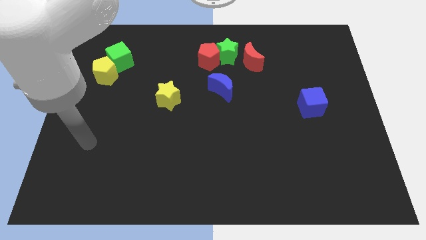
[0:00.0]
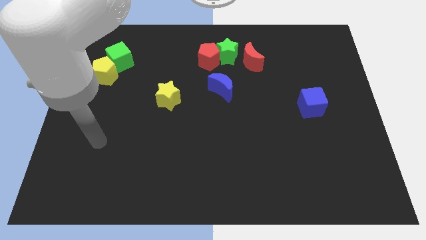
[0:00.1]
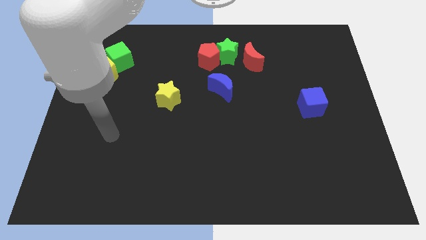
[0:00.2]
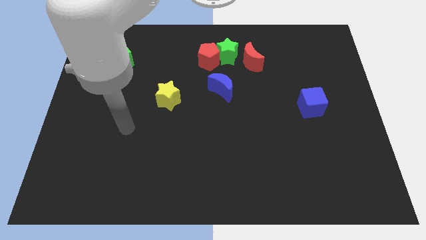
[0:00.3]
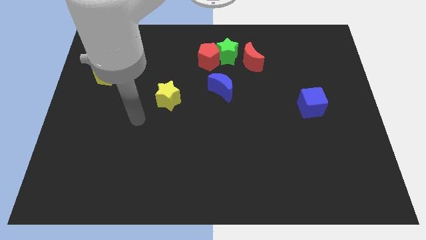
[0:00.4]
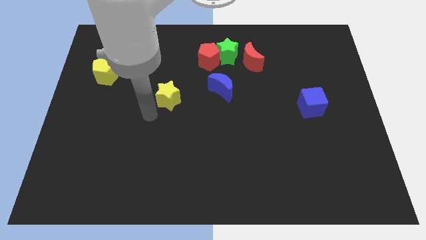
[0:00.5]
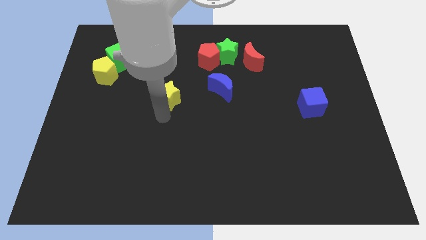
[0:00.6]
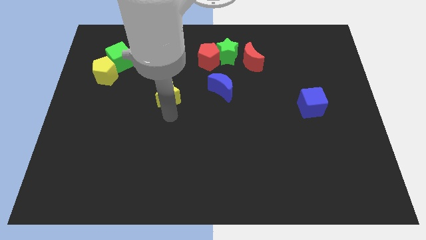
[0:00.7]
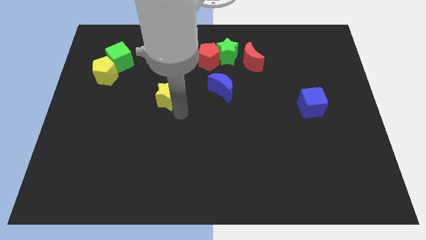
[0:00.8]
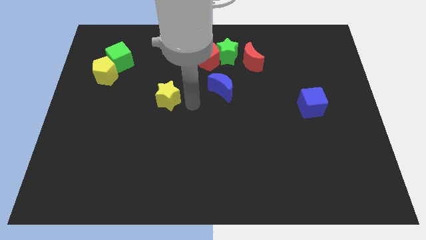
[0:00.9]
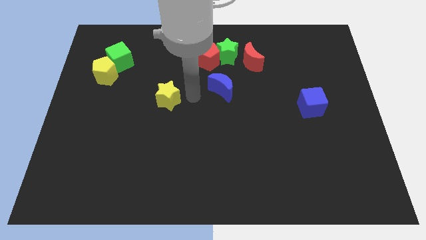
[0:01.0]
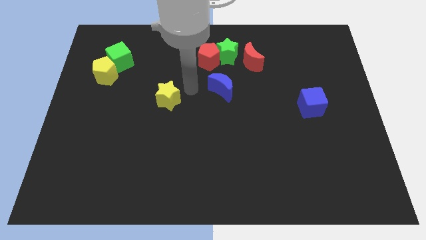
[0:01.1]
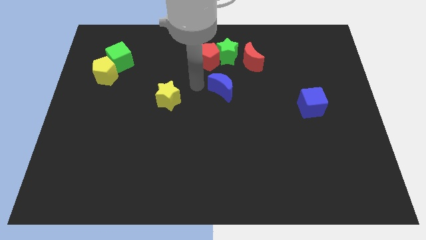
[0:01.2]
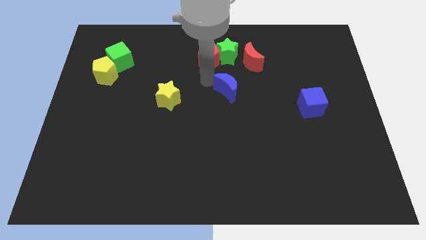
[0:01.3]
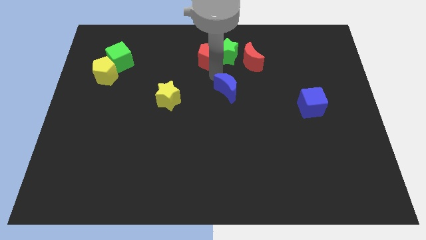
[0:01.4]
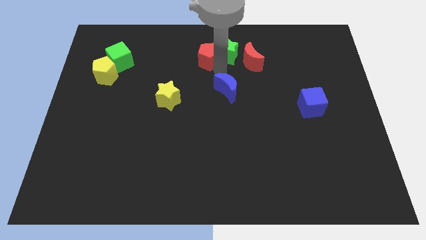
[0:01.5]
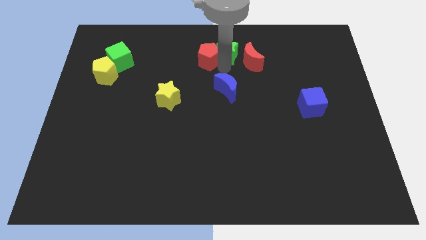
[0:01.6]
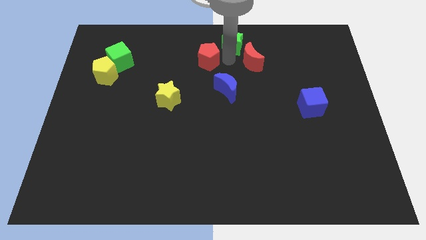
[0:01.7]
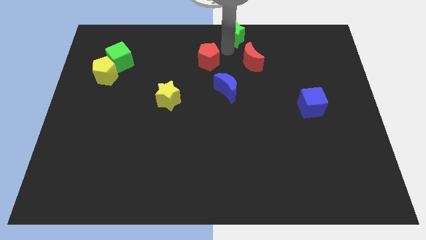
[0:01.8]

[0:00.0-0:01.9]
separate the red pentagon from the green star

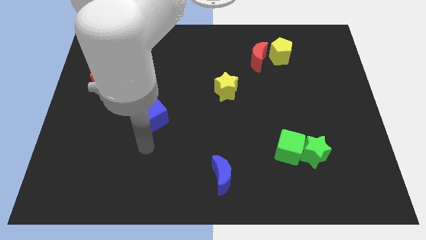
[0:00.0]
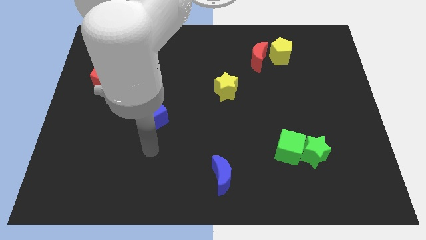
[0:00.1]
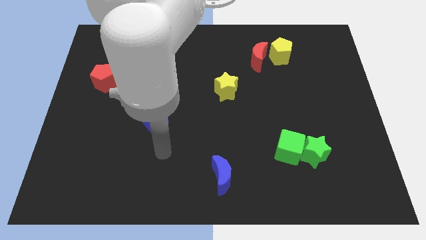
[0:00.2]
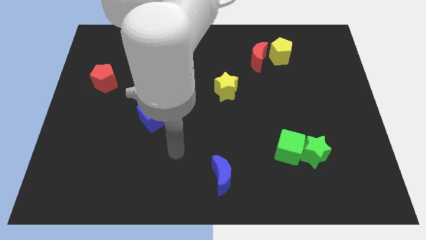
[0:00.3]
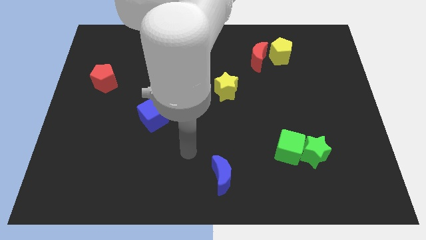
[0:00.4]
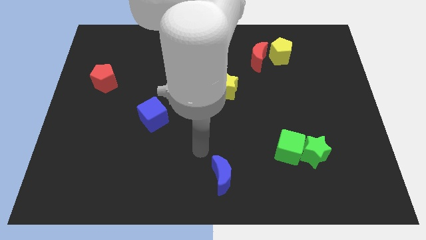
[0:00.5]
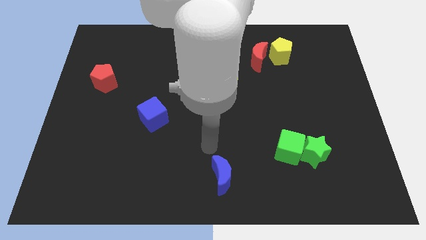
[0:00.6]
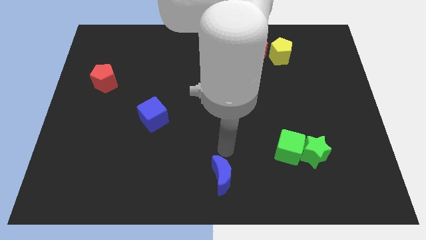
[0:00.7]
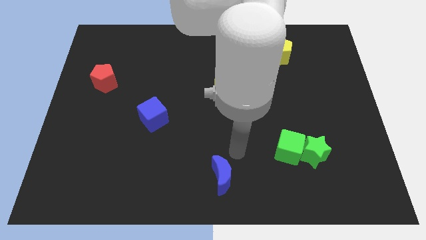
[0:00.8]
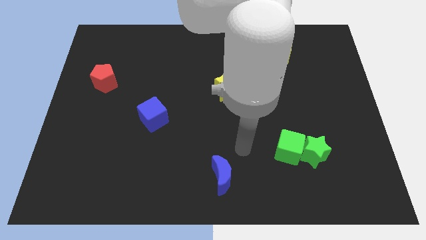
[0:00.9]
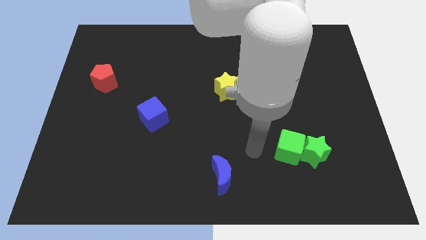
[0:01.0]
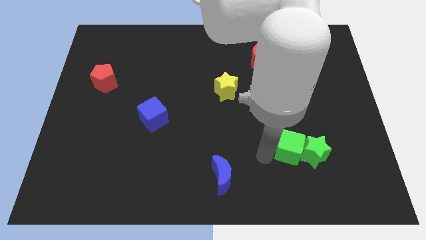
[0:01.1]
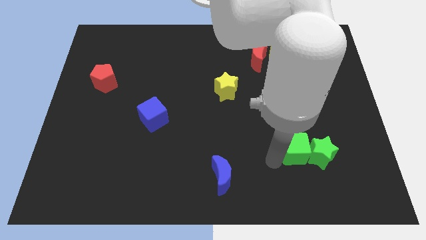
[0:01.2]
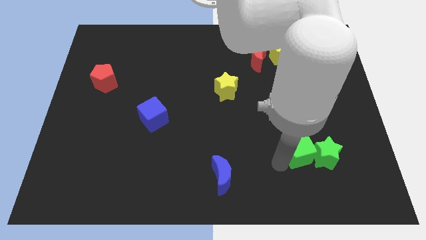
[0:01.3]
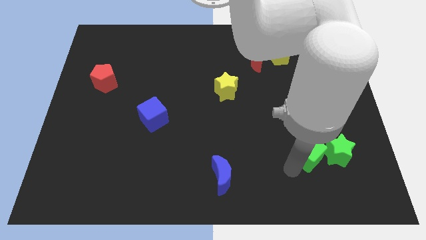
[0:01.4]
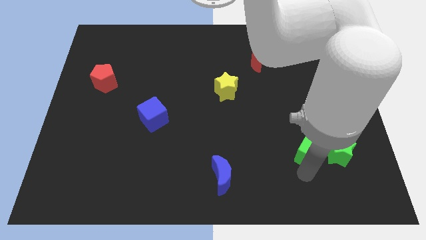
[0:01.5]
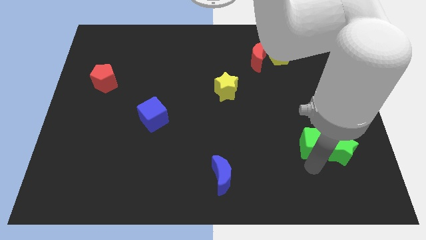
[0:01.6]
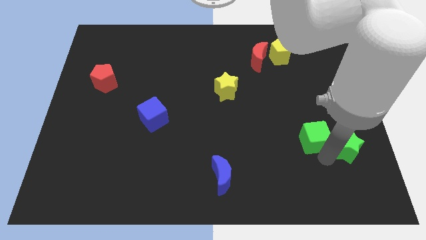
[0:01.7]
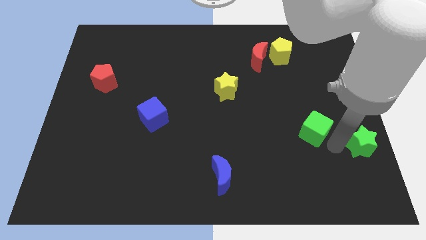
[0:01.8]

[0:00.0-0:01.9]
move the green cube away from the green star

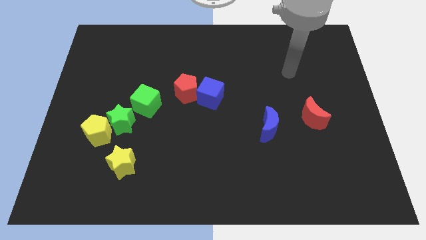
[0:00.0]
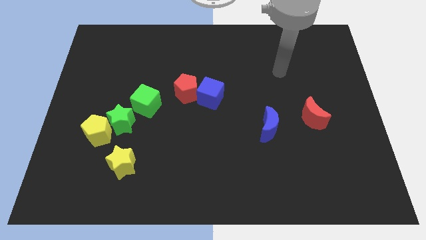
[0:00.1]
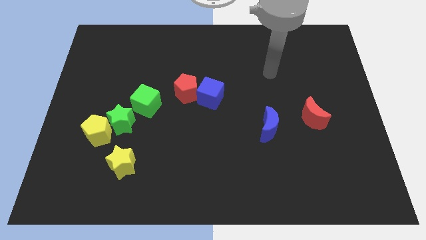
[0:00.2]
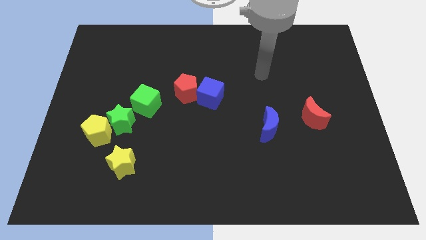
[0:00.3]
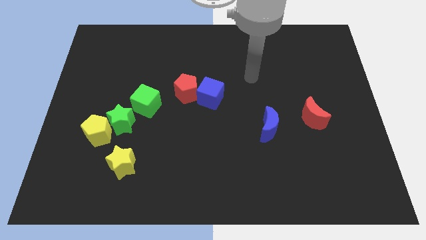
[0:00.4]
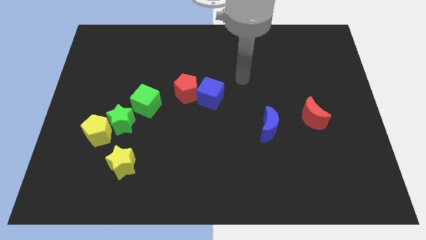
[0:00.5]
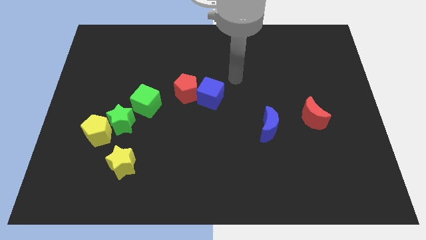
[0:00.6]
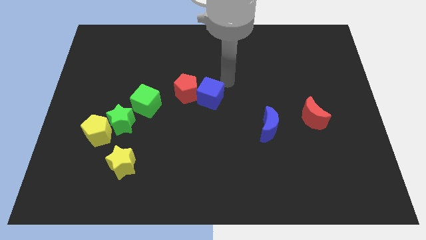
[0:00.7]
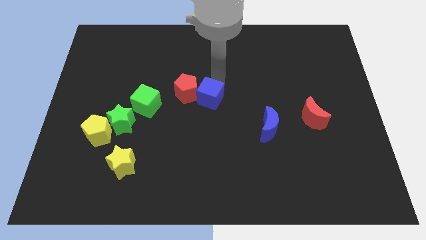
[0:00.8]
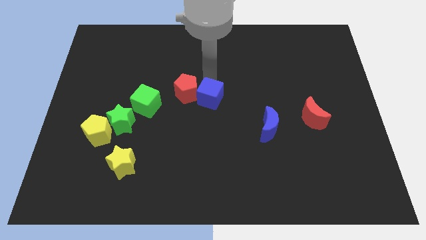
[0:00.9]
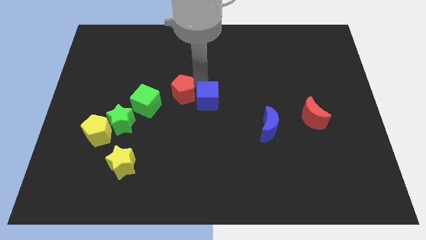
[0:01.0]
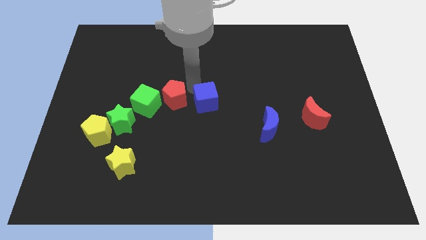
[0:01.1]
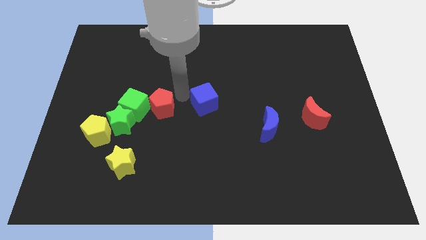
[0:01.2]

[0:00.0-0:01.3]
move the blue cube away from the red pentagon

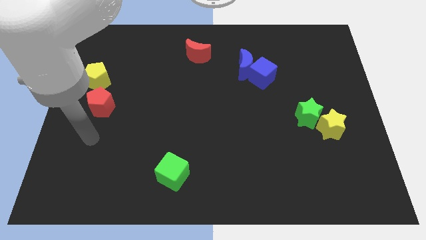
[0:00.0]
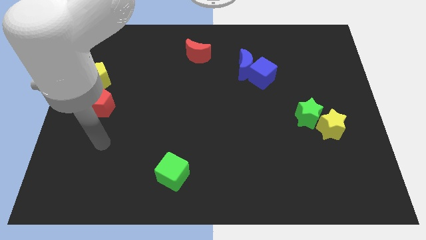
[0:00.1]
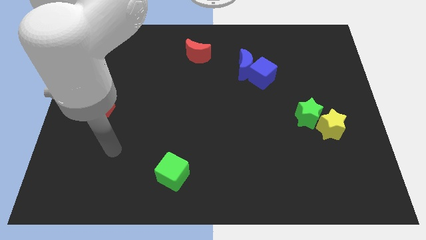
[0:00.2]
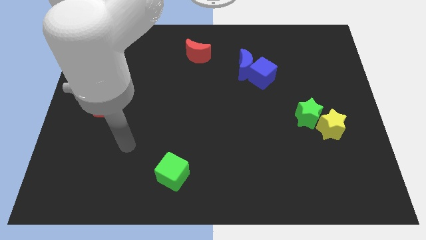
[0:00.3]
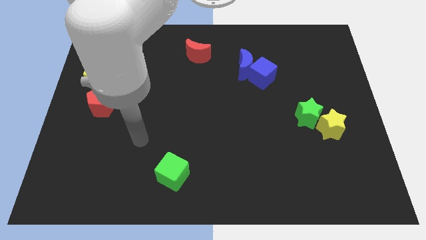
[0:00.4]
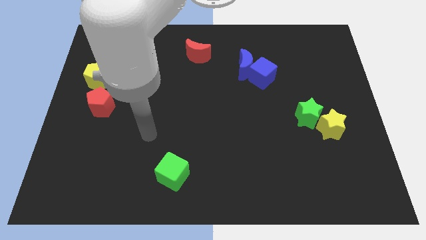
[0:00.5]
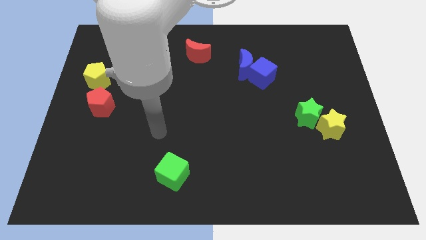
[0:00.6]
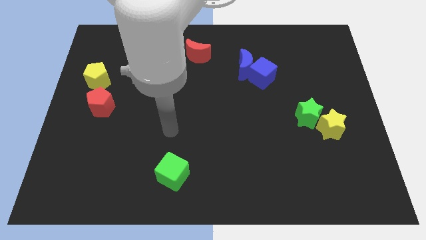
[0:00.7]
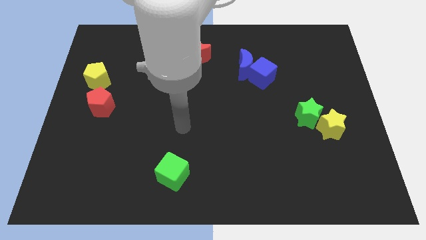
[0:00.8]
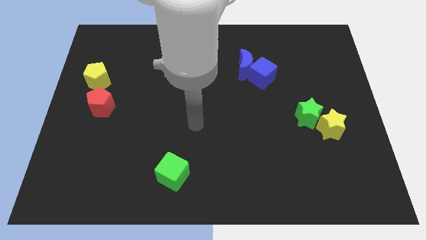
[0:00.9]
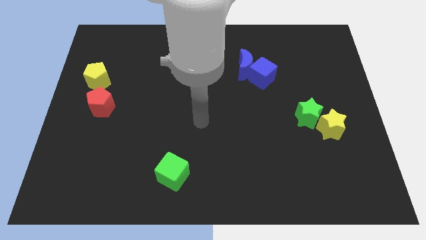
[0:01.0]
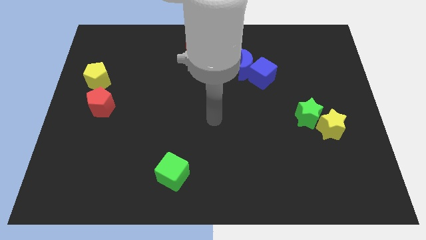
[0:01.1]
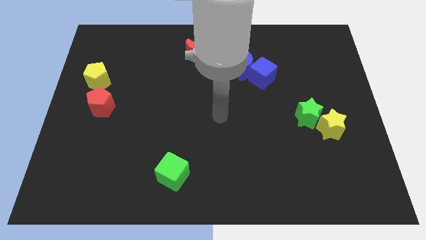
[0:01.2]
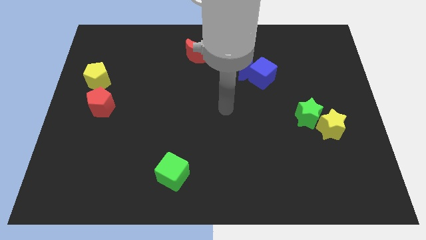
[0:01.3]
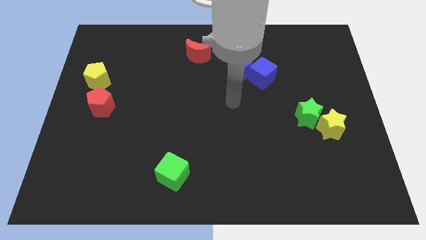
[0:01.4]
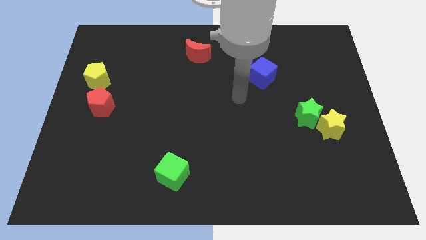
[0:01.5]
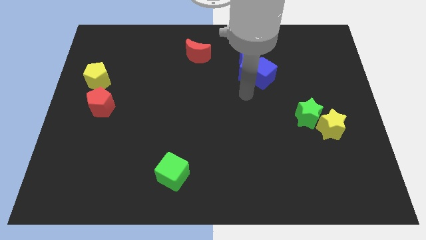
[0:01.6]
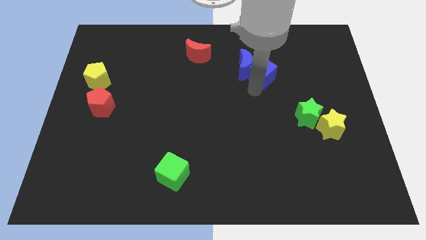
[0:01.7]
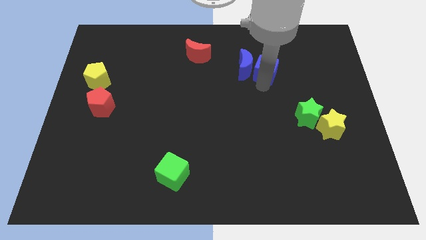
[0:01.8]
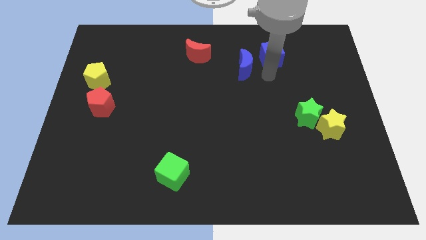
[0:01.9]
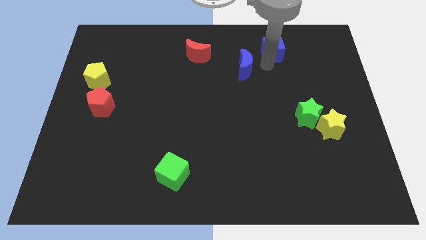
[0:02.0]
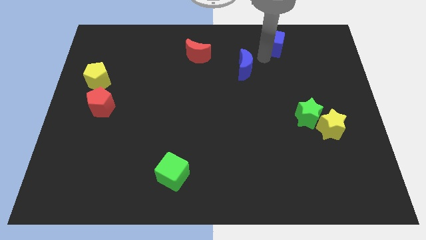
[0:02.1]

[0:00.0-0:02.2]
separate the blue moon from the blue cube

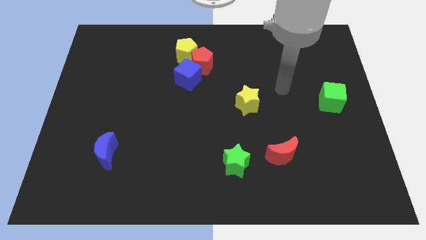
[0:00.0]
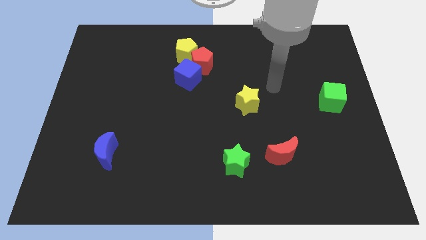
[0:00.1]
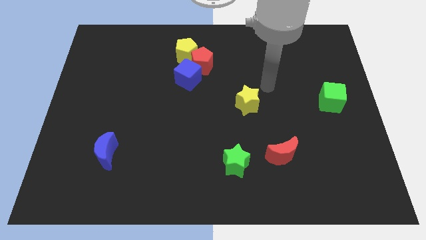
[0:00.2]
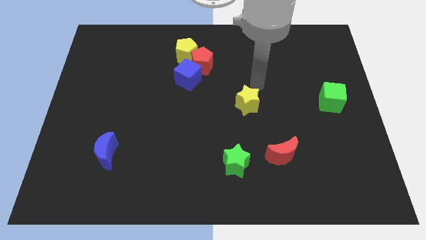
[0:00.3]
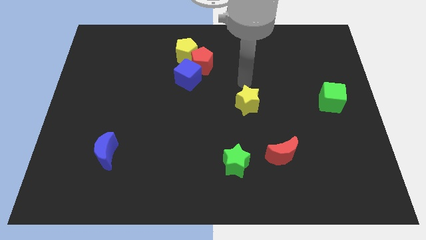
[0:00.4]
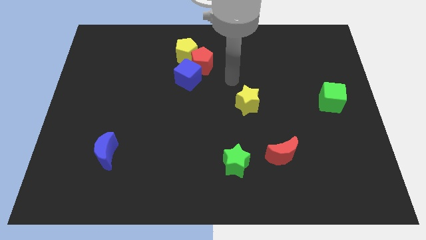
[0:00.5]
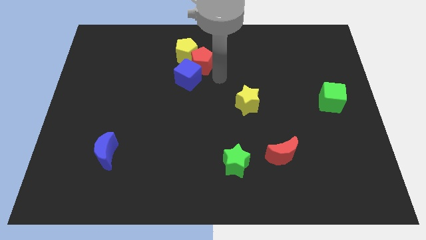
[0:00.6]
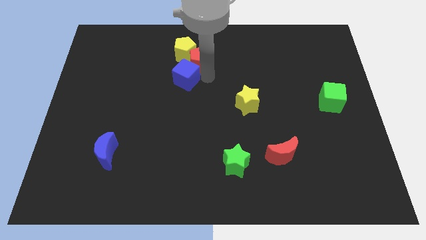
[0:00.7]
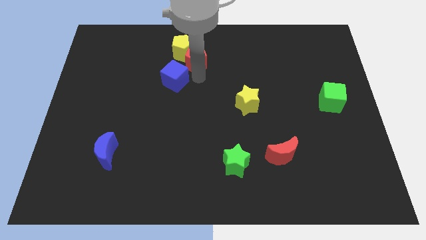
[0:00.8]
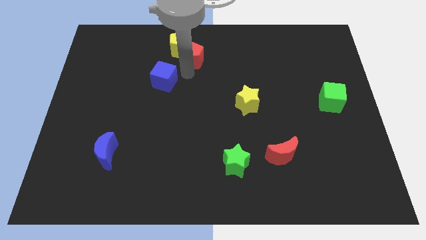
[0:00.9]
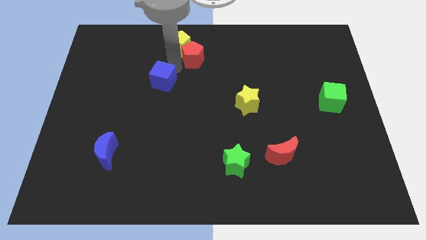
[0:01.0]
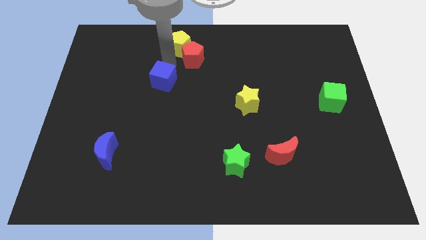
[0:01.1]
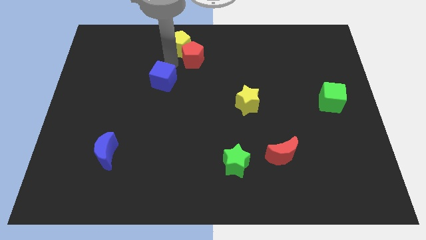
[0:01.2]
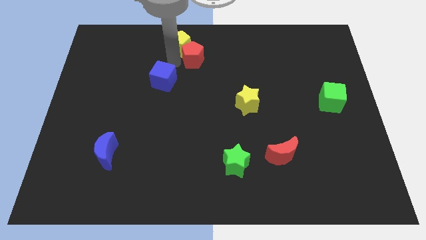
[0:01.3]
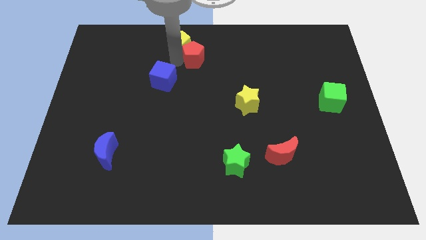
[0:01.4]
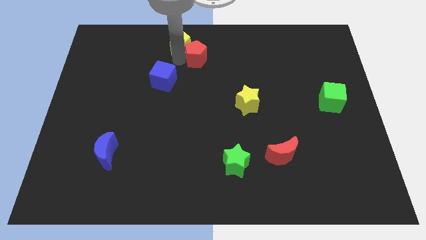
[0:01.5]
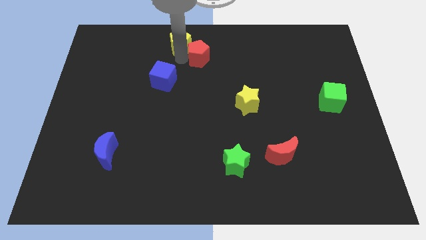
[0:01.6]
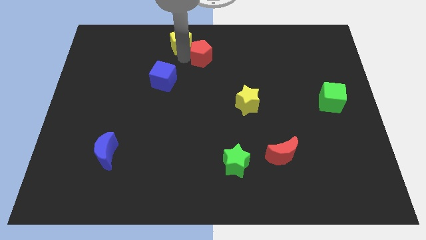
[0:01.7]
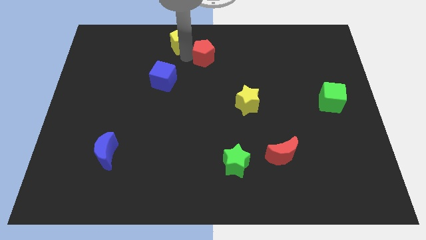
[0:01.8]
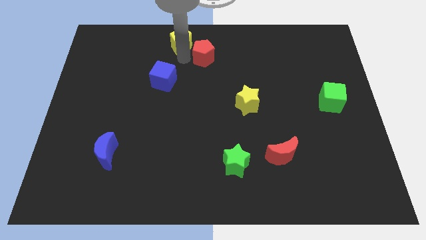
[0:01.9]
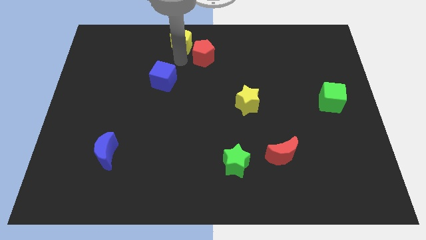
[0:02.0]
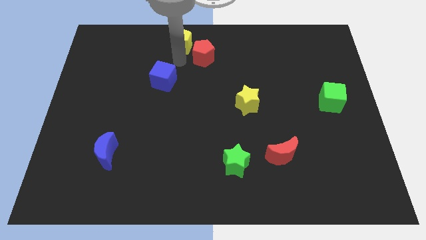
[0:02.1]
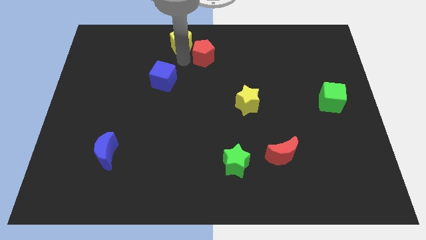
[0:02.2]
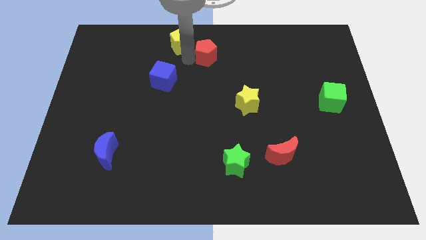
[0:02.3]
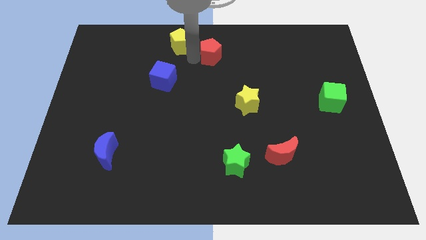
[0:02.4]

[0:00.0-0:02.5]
pull the red pentagon apart from the yellow pentagon and blue cube
